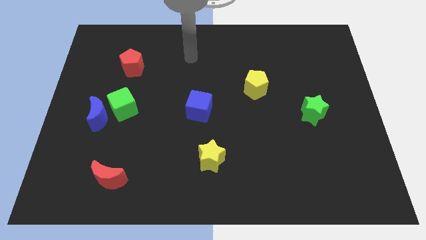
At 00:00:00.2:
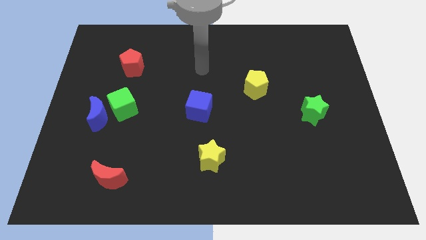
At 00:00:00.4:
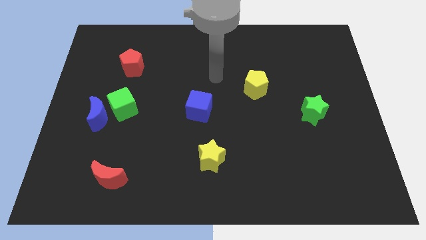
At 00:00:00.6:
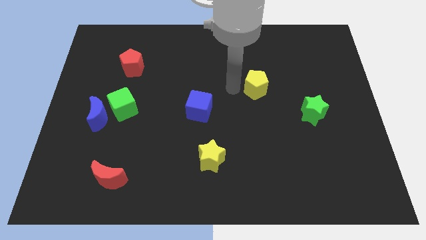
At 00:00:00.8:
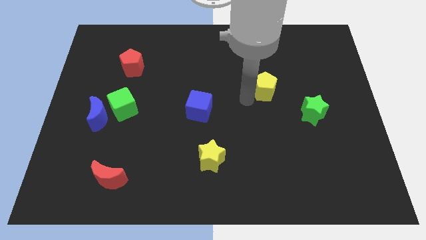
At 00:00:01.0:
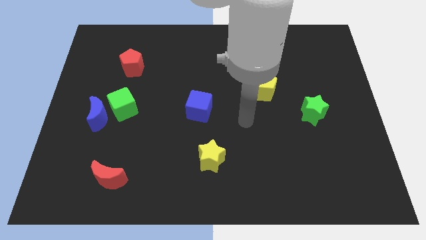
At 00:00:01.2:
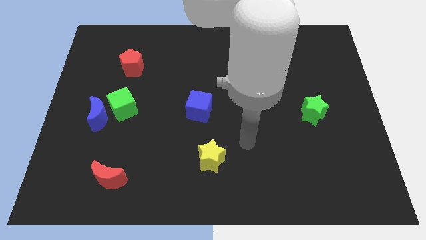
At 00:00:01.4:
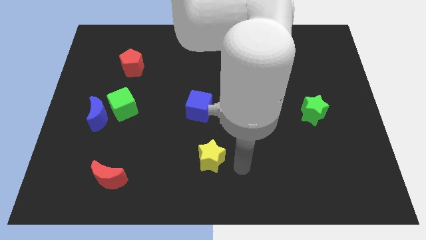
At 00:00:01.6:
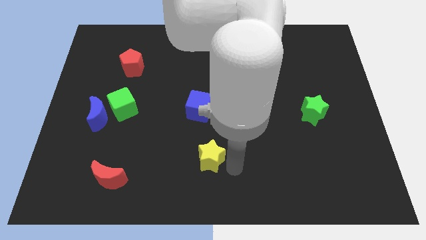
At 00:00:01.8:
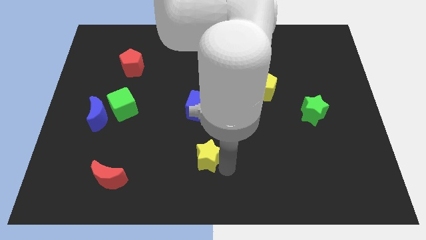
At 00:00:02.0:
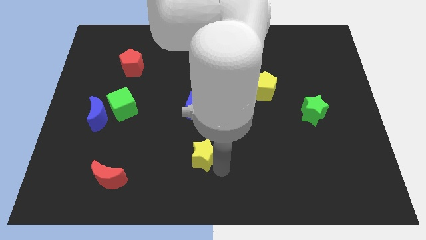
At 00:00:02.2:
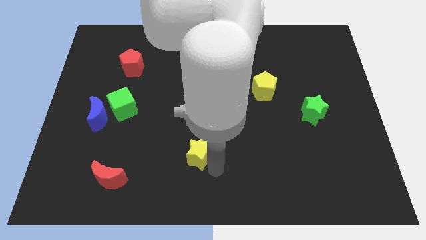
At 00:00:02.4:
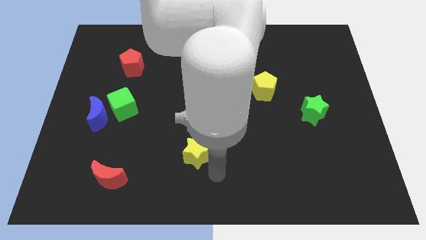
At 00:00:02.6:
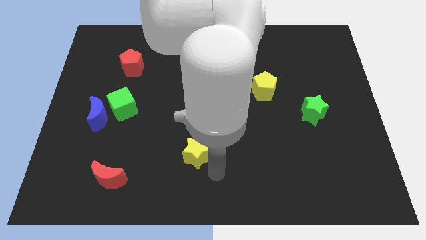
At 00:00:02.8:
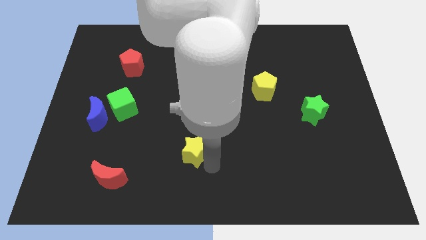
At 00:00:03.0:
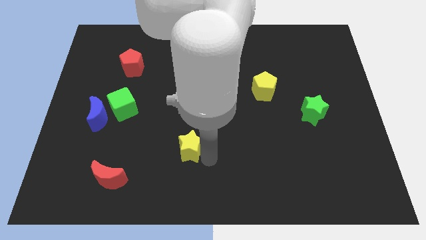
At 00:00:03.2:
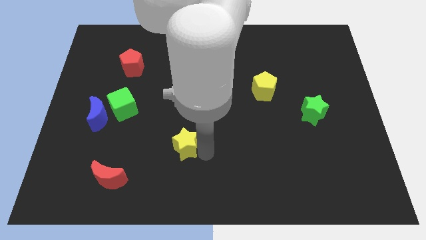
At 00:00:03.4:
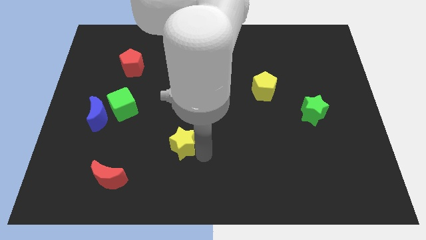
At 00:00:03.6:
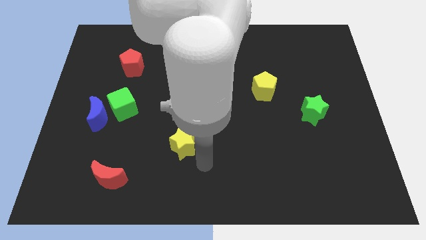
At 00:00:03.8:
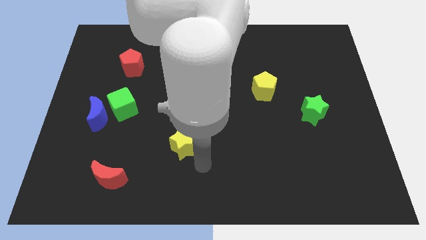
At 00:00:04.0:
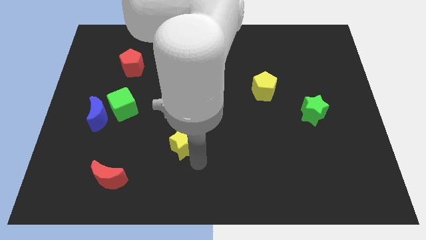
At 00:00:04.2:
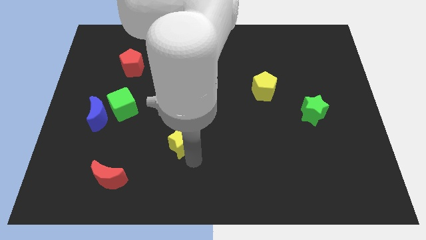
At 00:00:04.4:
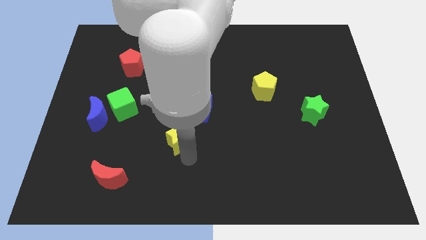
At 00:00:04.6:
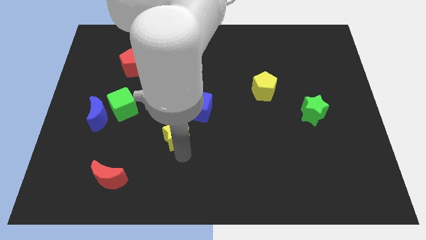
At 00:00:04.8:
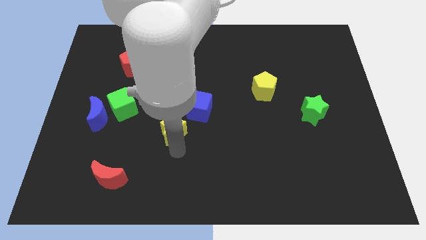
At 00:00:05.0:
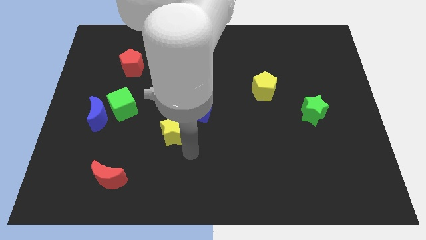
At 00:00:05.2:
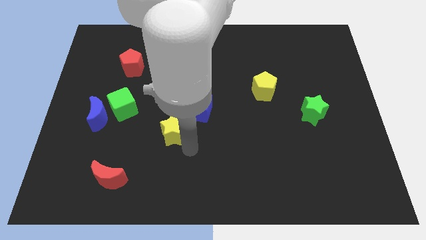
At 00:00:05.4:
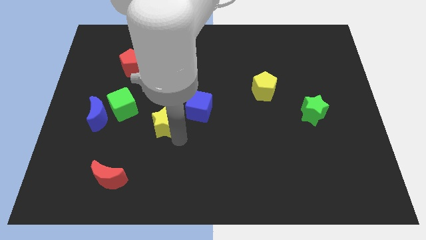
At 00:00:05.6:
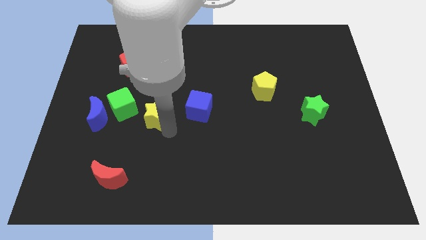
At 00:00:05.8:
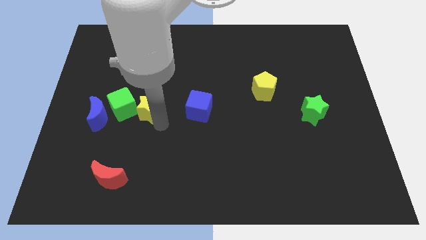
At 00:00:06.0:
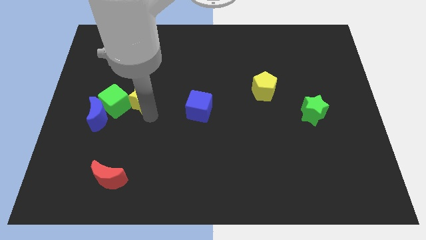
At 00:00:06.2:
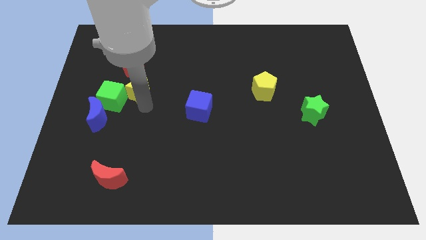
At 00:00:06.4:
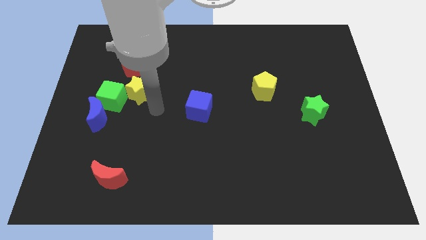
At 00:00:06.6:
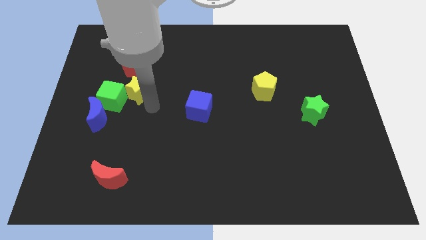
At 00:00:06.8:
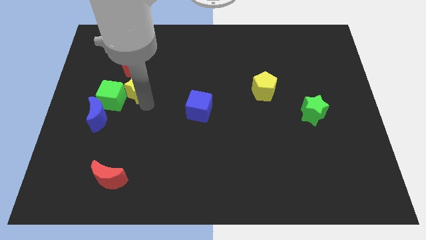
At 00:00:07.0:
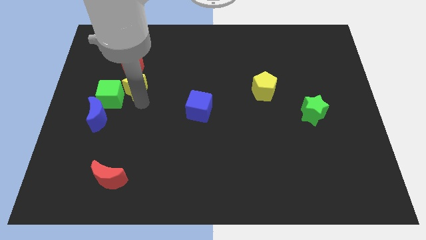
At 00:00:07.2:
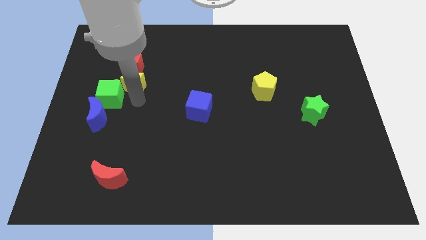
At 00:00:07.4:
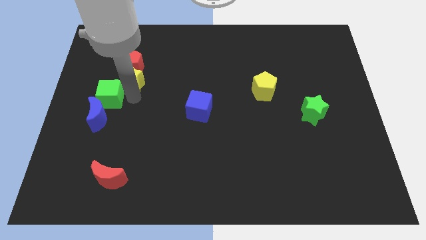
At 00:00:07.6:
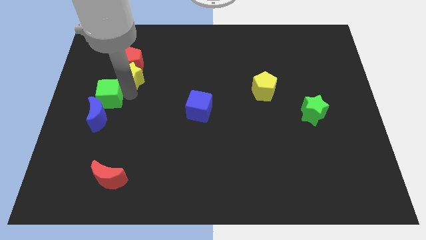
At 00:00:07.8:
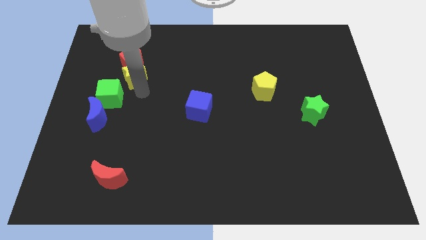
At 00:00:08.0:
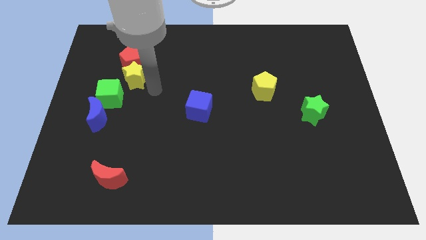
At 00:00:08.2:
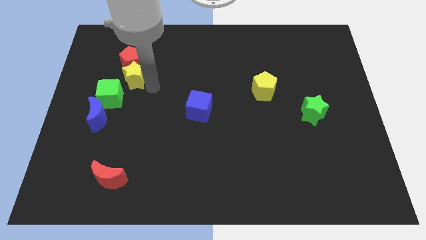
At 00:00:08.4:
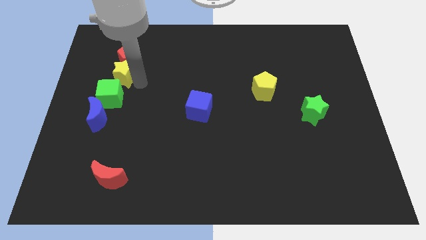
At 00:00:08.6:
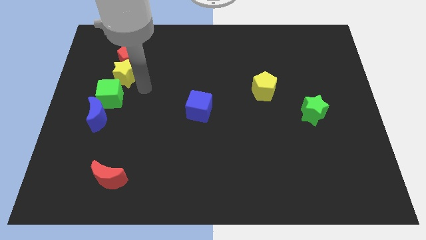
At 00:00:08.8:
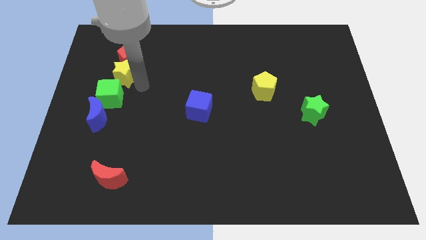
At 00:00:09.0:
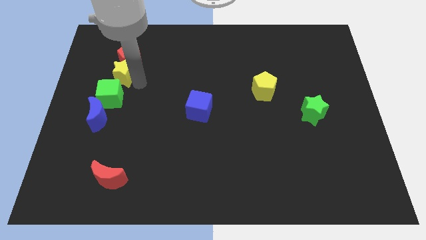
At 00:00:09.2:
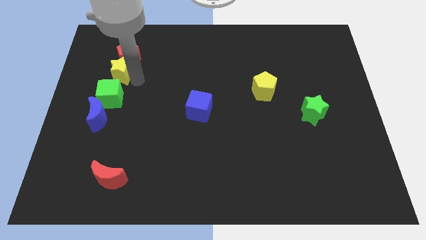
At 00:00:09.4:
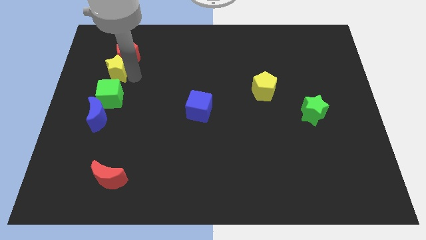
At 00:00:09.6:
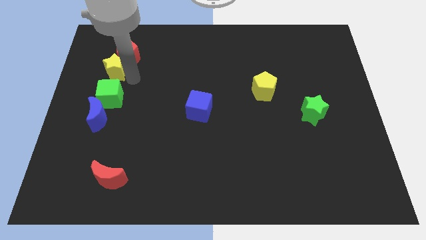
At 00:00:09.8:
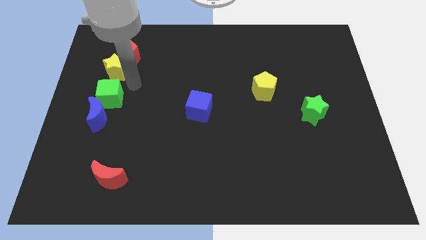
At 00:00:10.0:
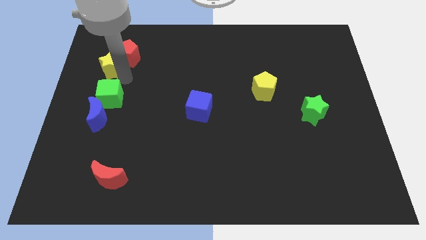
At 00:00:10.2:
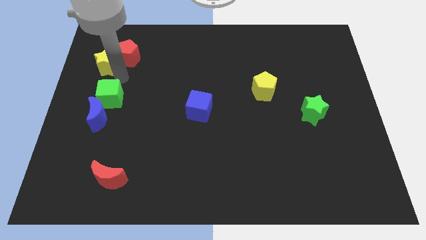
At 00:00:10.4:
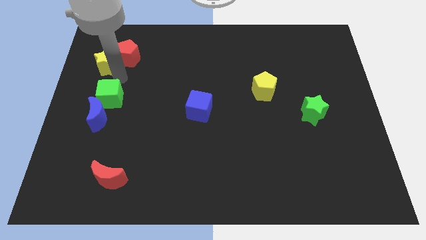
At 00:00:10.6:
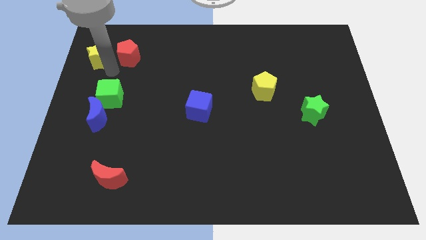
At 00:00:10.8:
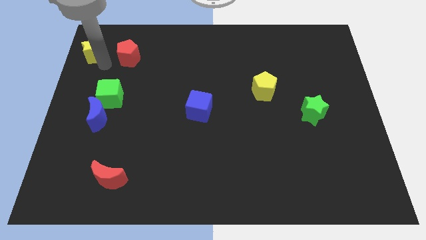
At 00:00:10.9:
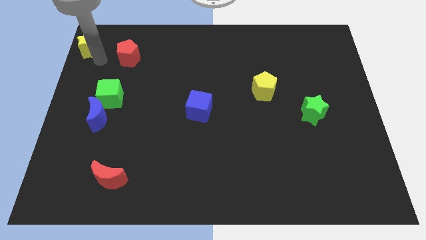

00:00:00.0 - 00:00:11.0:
push the yellow star to the top left

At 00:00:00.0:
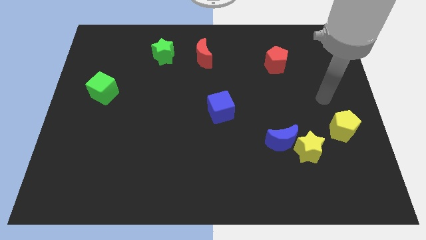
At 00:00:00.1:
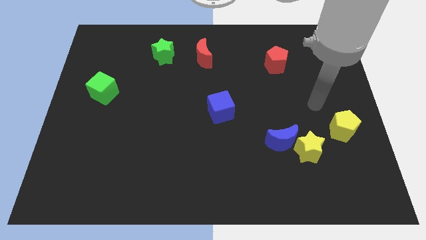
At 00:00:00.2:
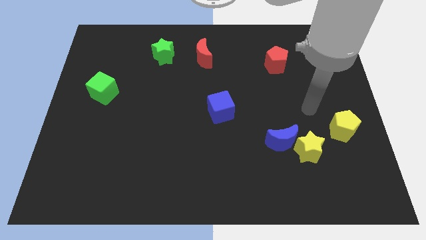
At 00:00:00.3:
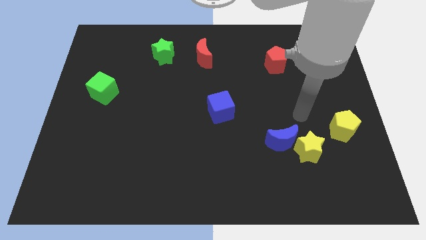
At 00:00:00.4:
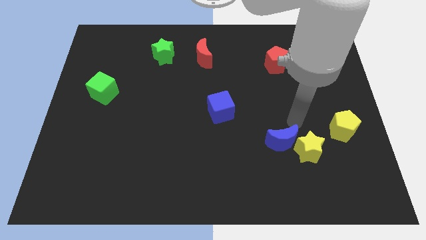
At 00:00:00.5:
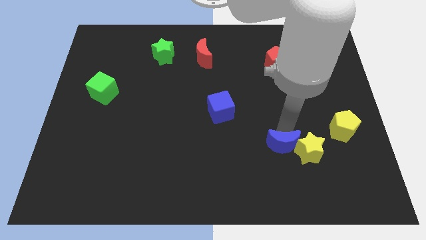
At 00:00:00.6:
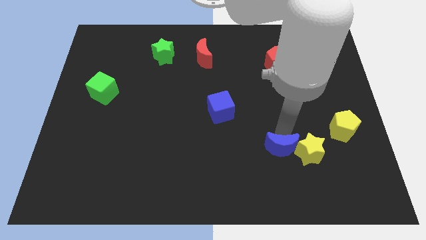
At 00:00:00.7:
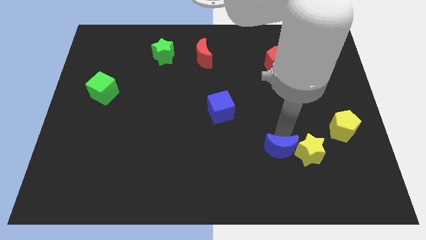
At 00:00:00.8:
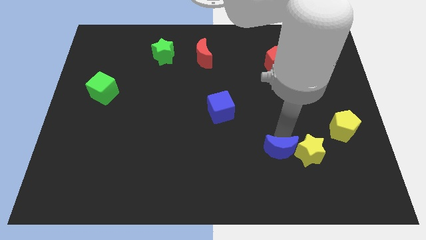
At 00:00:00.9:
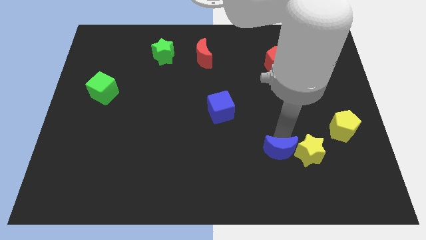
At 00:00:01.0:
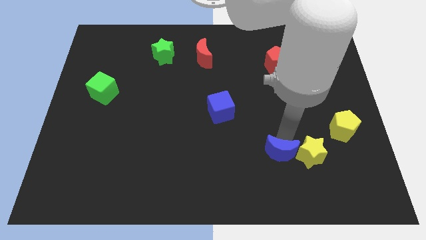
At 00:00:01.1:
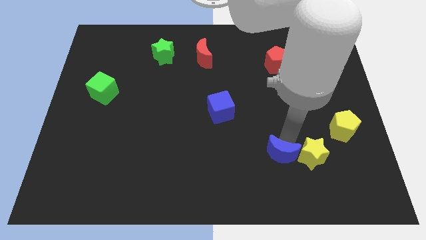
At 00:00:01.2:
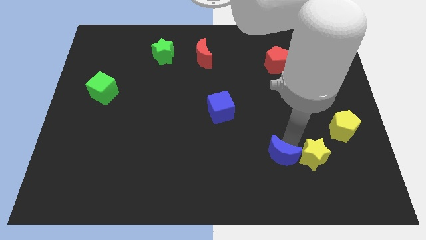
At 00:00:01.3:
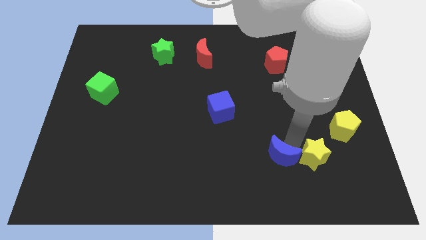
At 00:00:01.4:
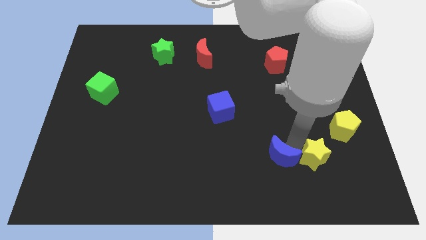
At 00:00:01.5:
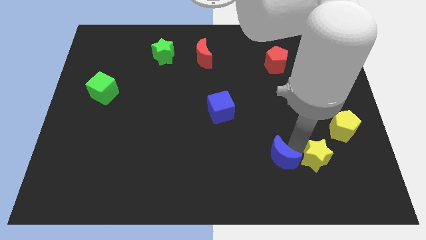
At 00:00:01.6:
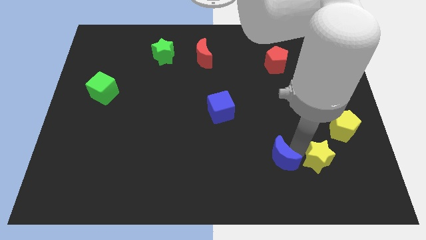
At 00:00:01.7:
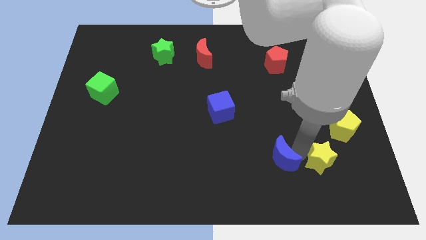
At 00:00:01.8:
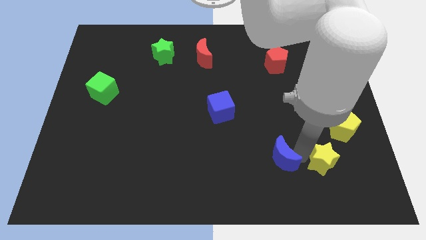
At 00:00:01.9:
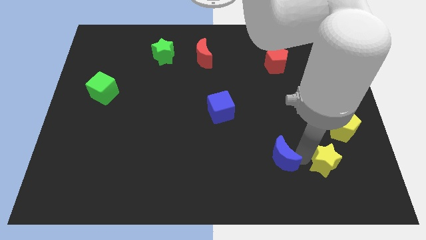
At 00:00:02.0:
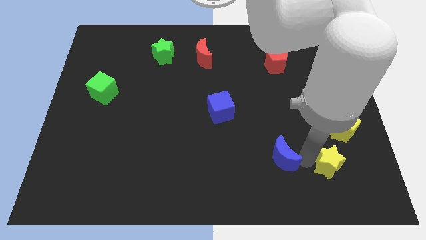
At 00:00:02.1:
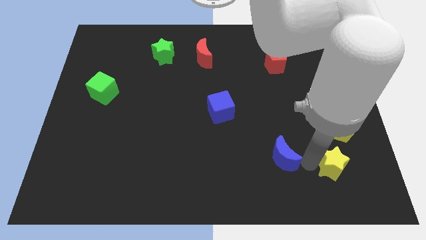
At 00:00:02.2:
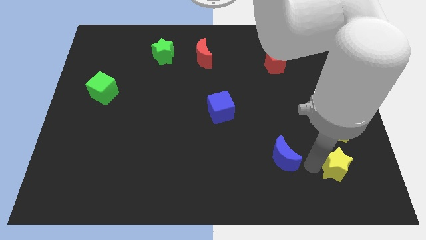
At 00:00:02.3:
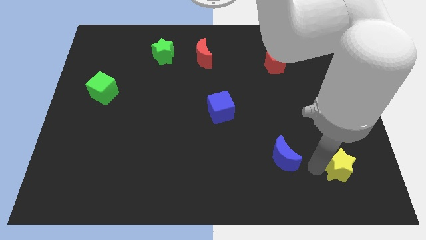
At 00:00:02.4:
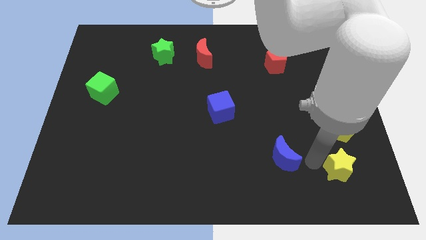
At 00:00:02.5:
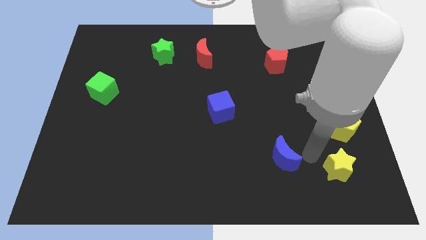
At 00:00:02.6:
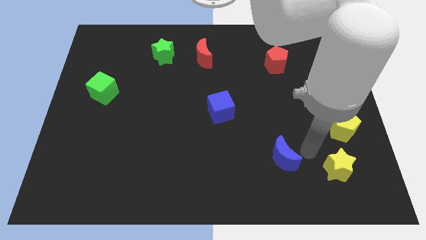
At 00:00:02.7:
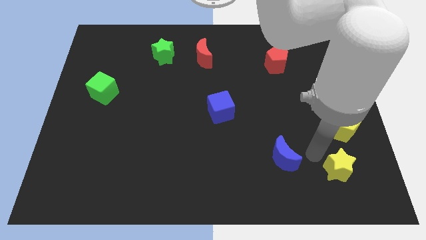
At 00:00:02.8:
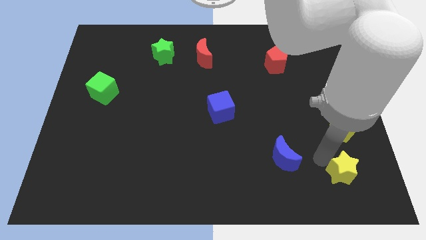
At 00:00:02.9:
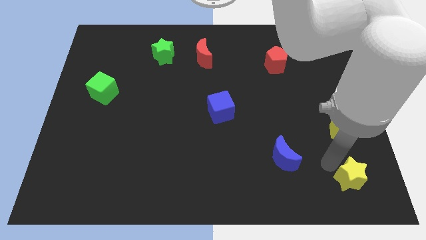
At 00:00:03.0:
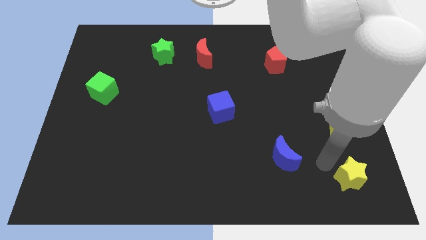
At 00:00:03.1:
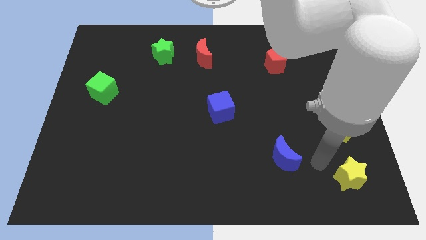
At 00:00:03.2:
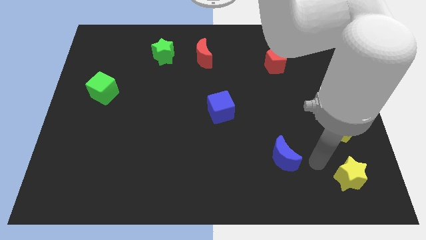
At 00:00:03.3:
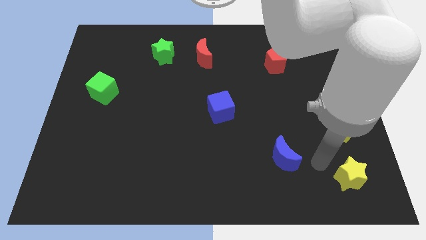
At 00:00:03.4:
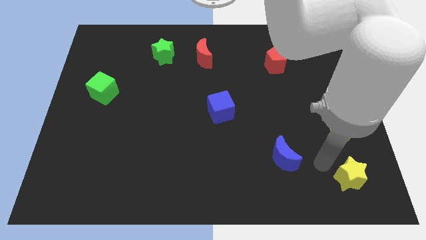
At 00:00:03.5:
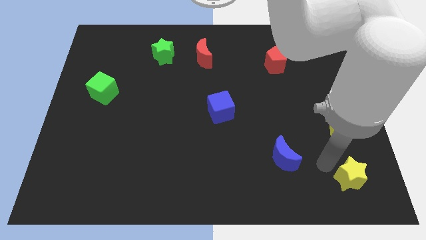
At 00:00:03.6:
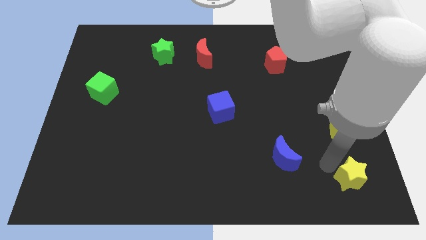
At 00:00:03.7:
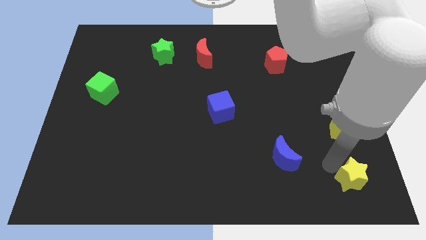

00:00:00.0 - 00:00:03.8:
move the yellow star to the bottom right corner
